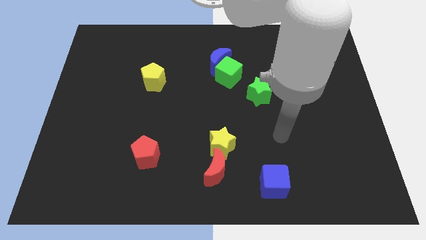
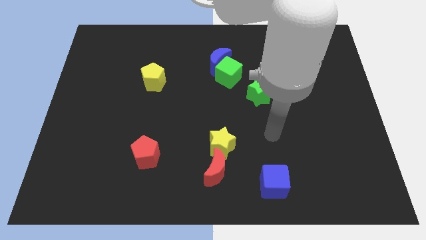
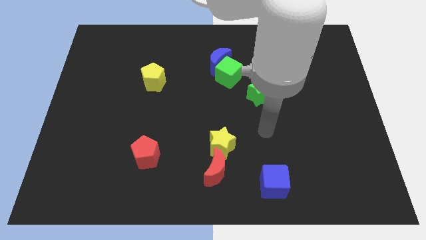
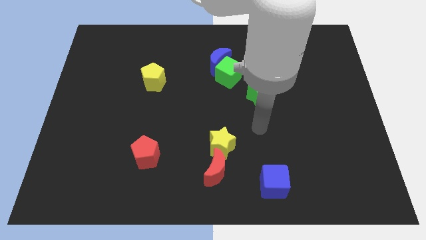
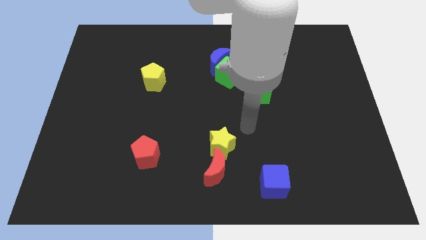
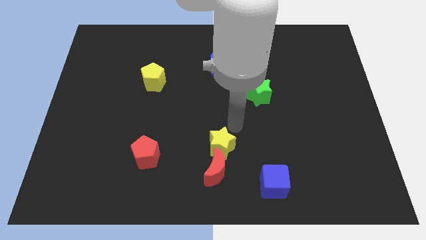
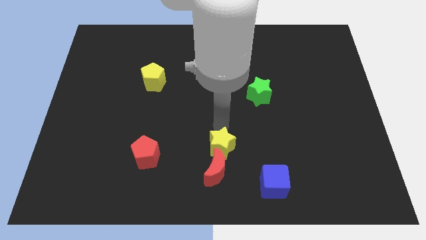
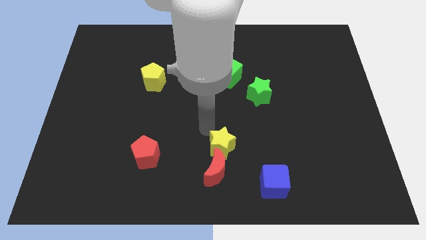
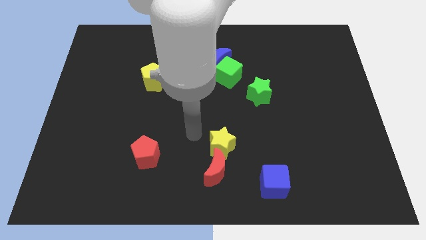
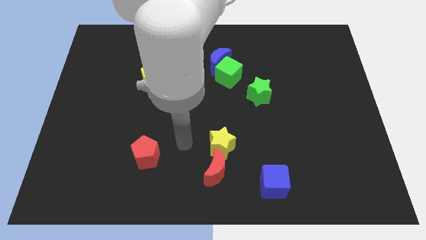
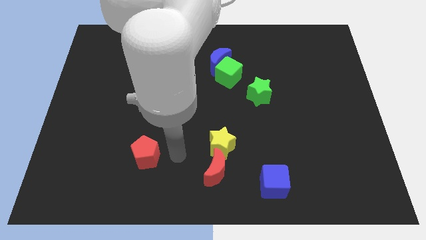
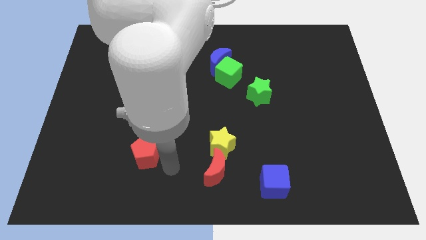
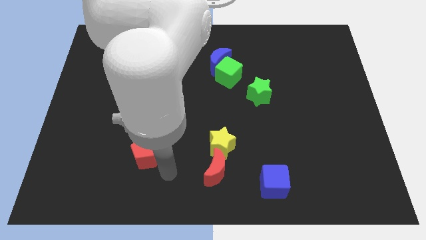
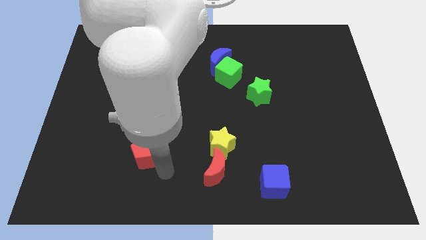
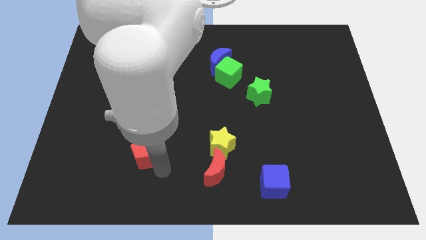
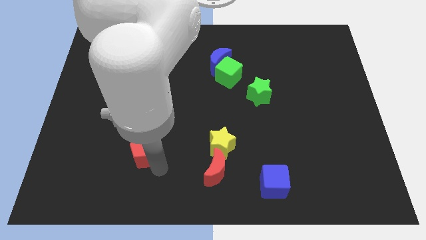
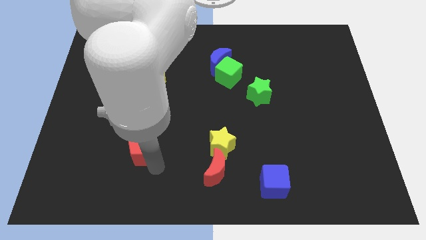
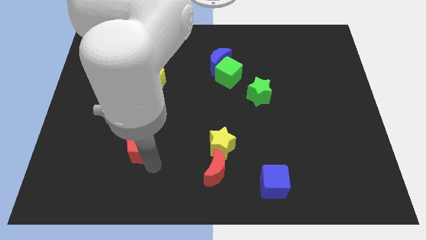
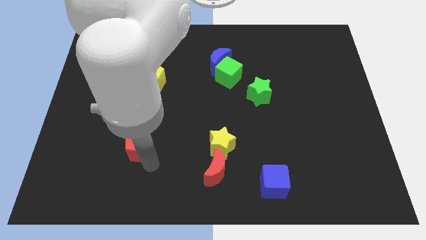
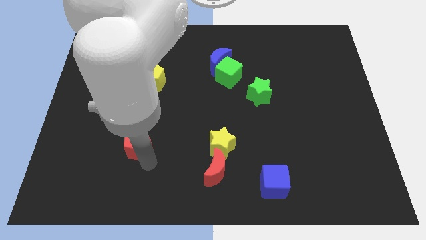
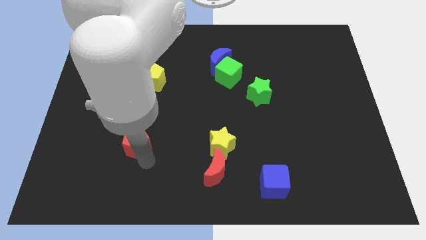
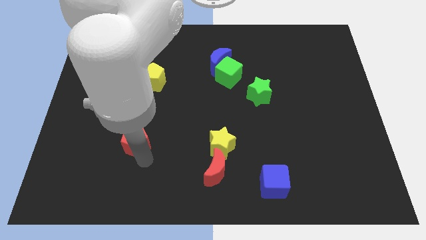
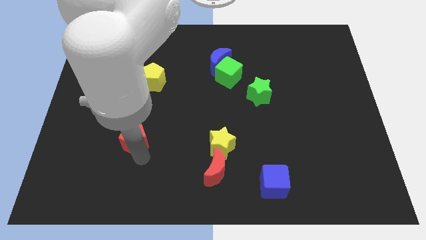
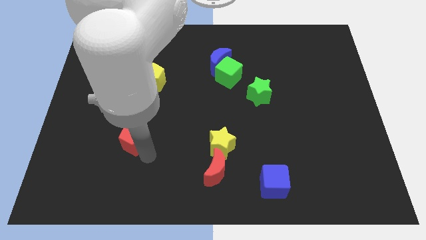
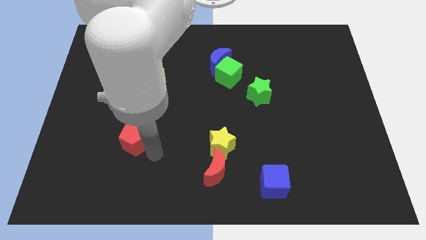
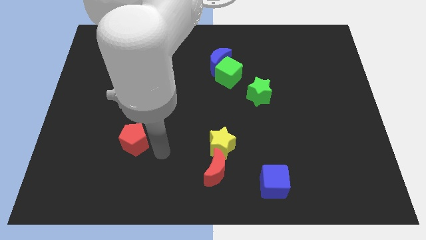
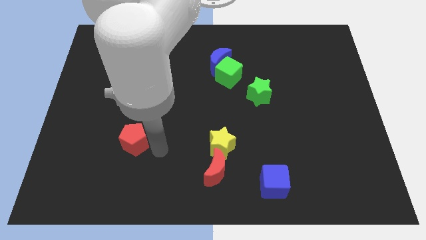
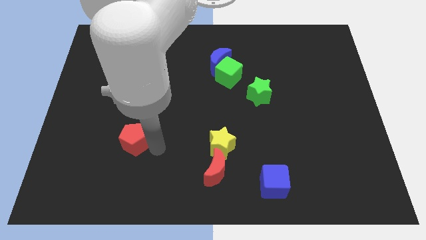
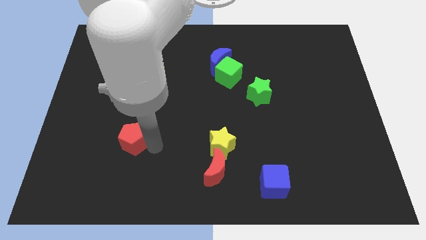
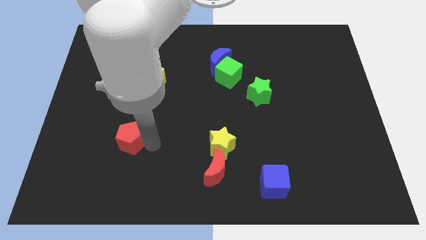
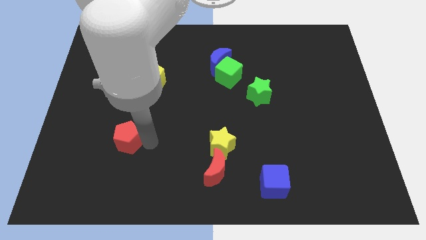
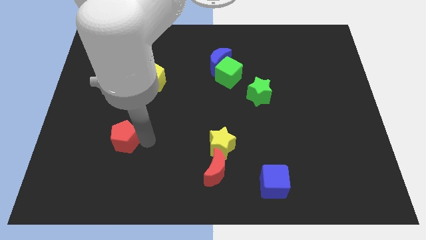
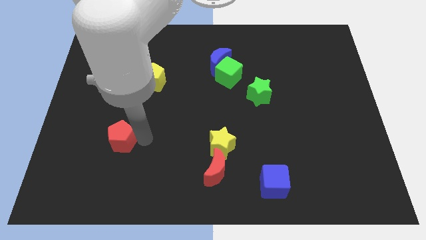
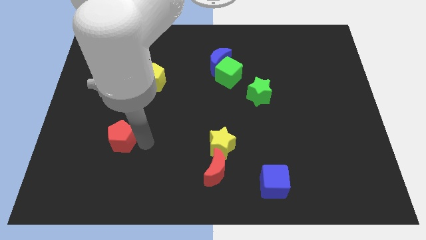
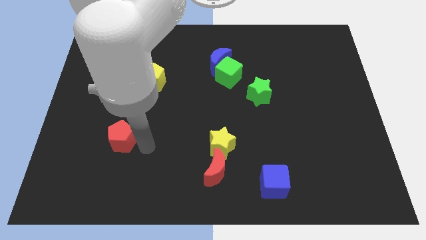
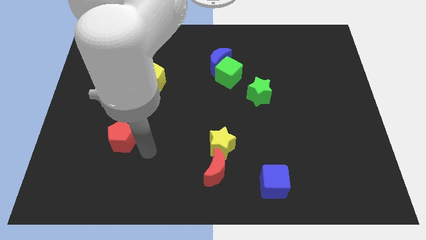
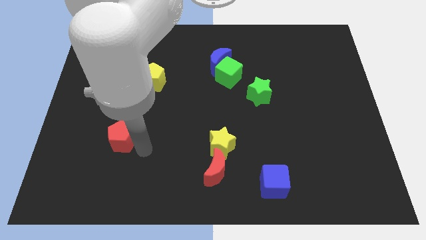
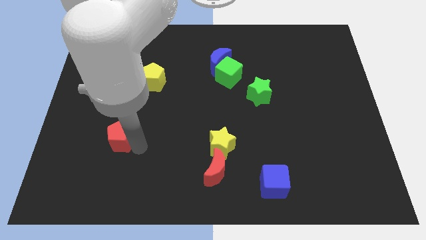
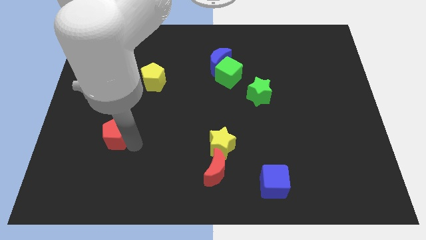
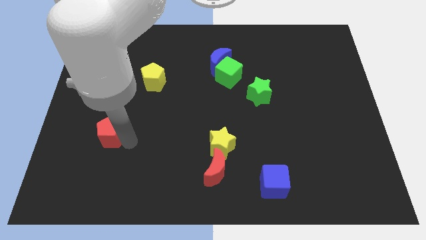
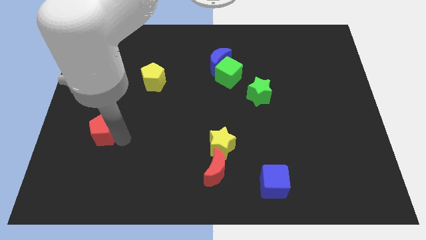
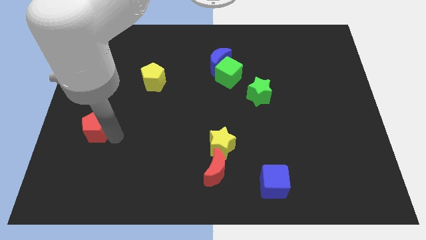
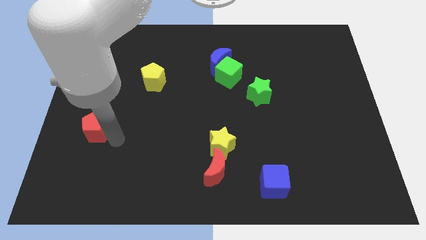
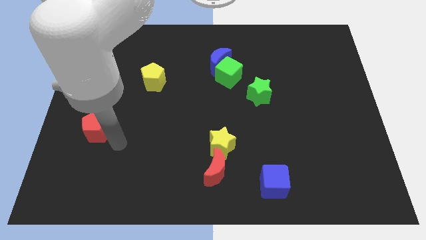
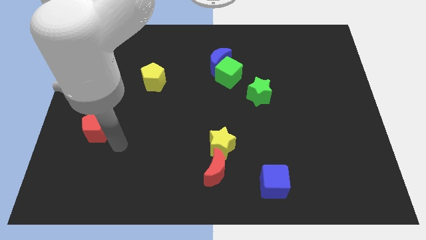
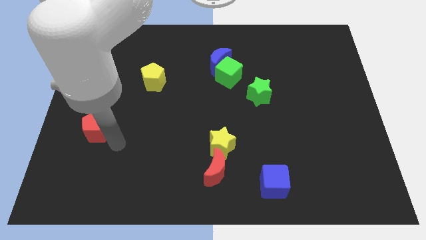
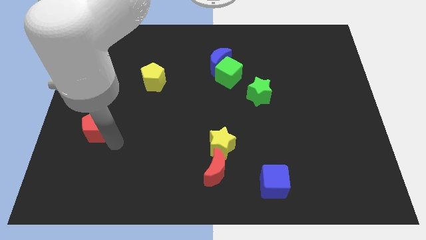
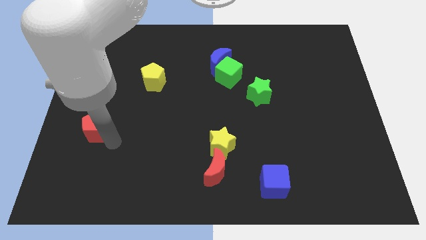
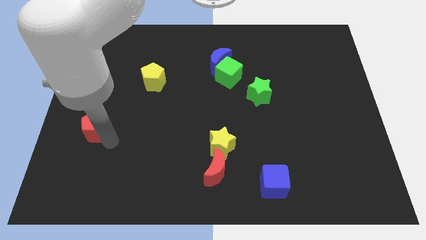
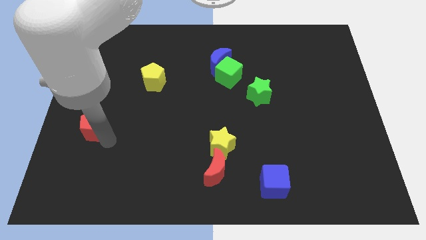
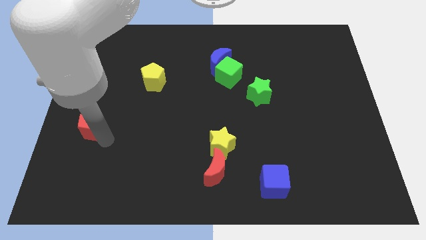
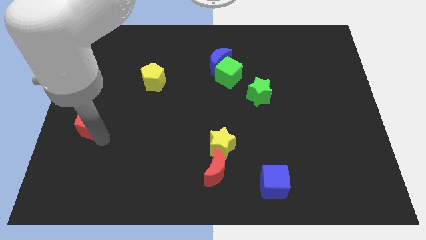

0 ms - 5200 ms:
move the red pentagon to the left side

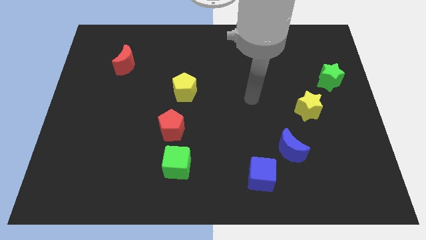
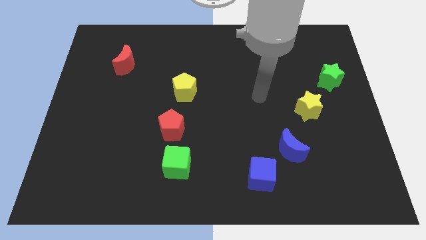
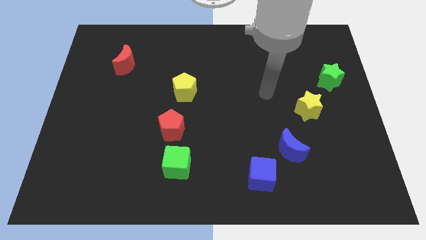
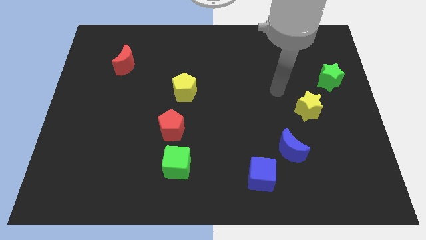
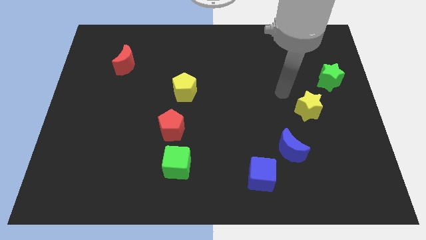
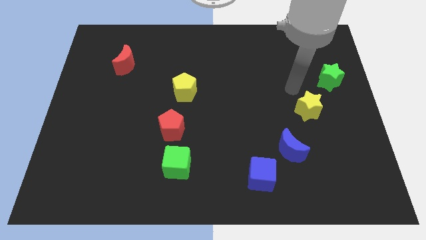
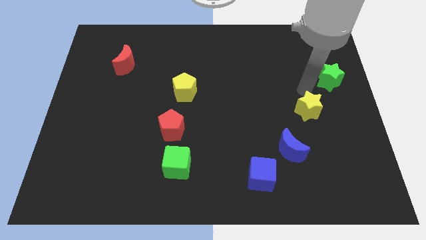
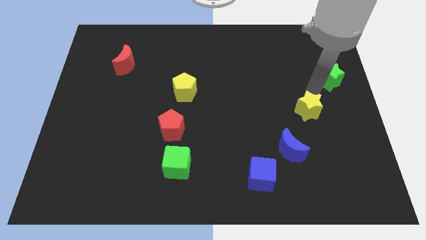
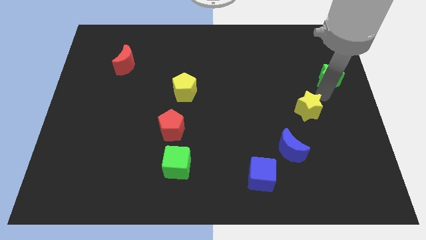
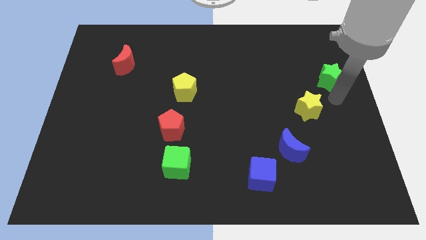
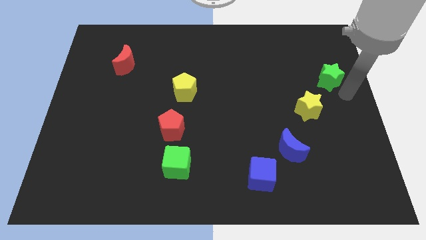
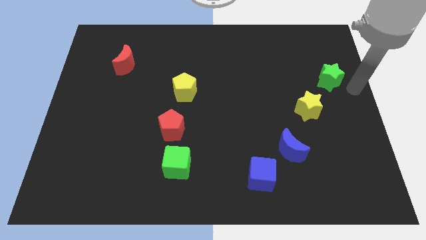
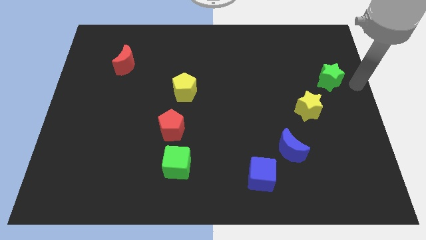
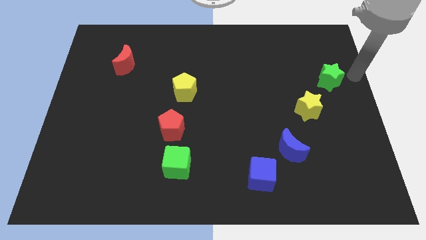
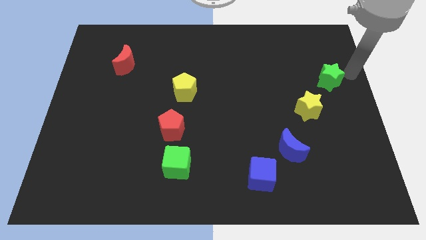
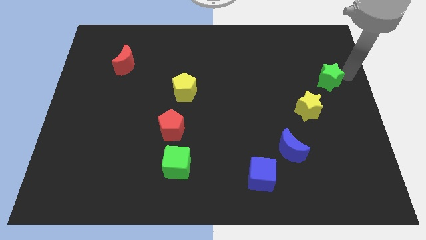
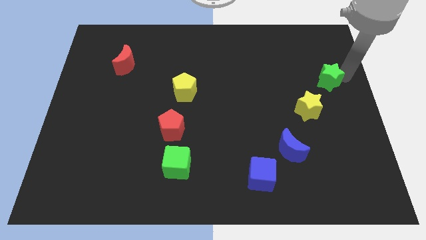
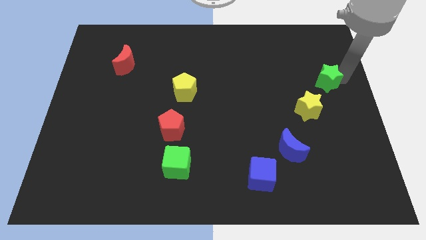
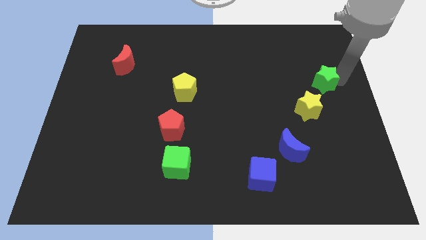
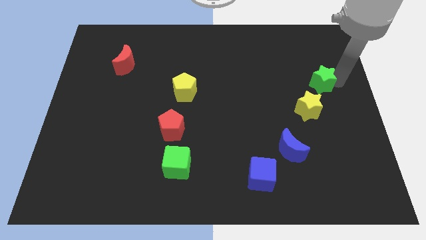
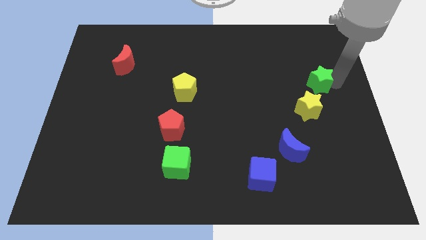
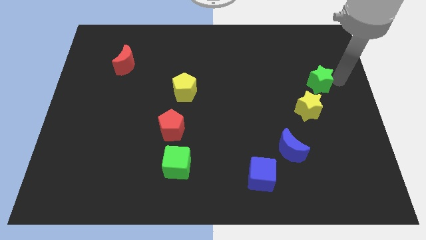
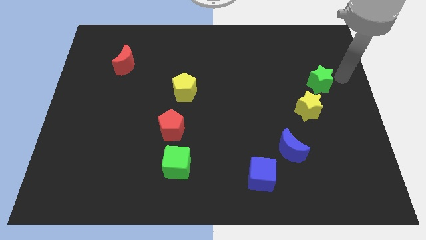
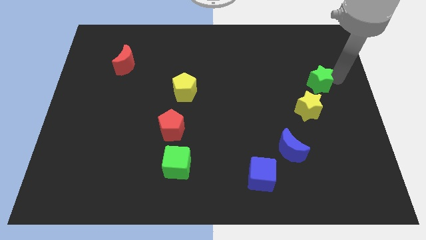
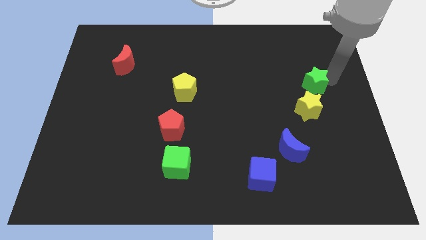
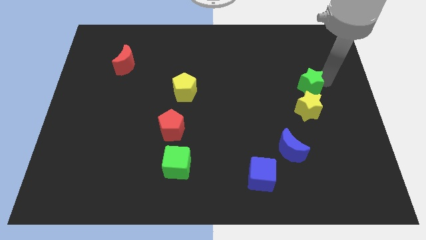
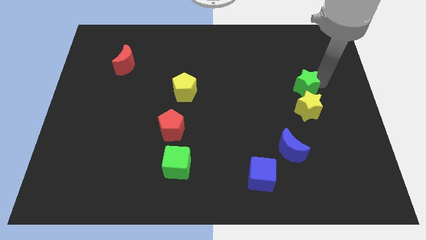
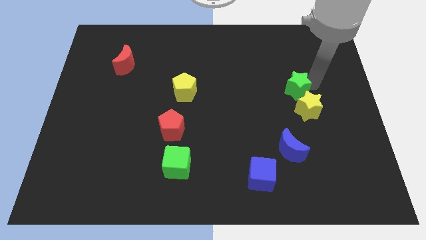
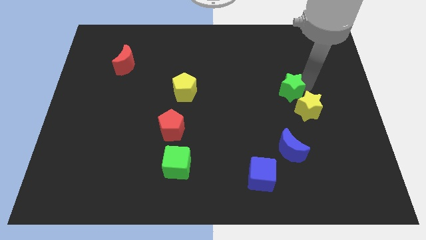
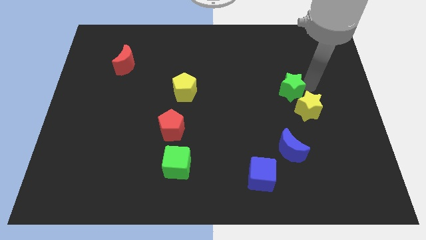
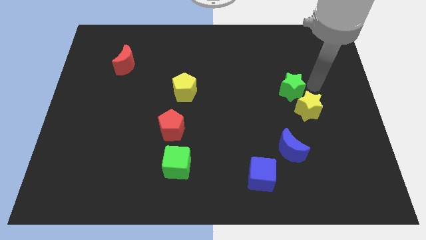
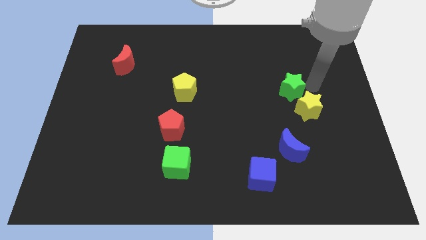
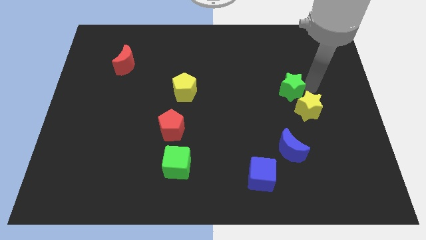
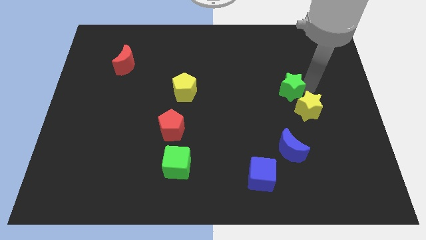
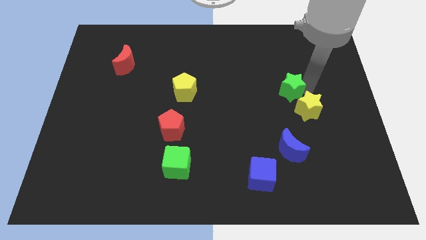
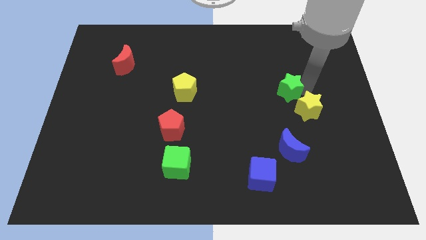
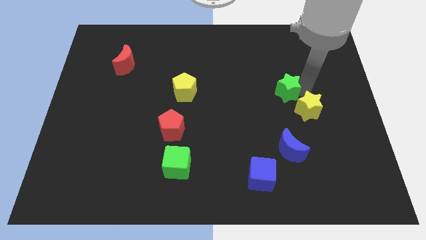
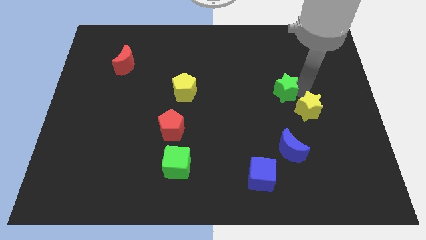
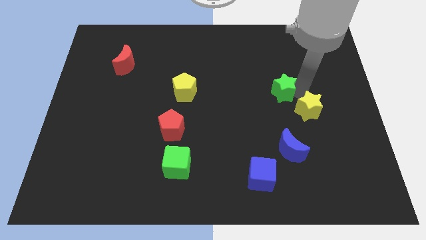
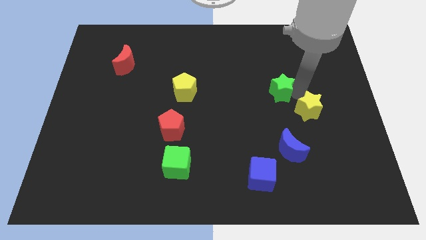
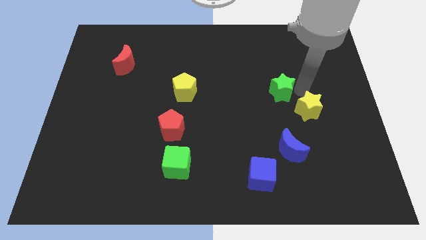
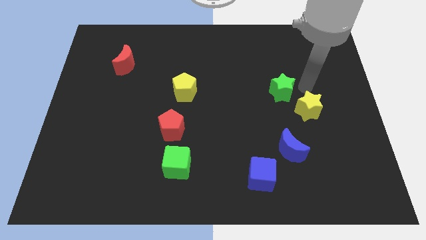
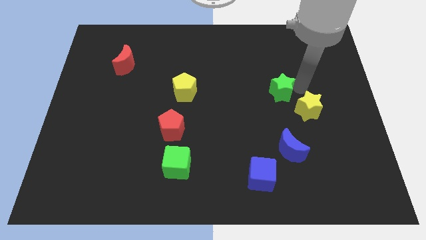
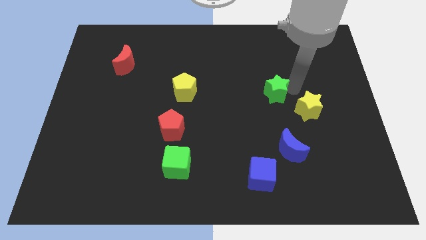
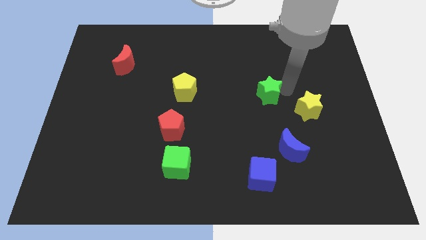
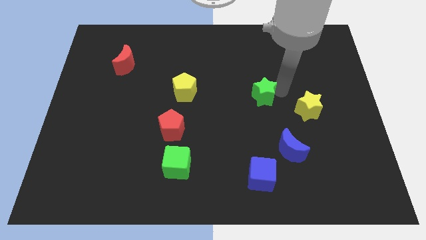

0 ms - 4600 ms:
push the green star to the middle
